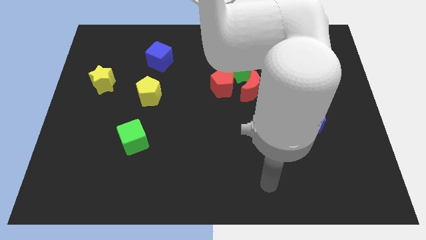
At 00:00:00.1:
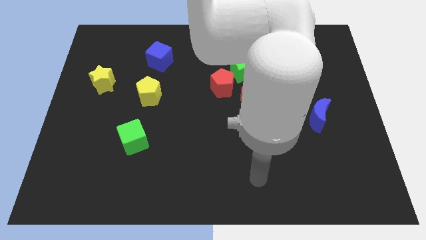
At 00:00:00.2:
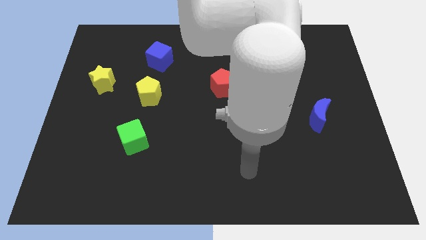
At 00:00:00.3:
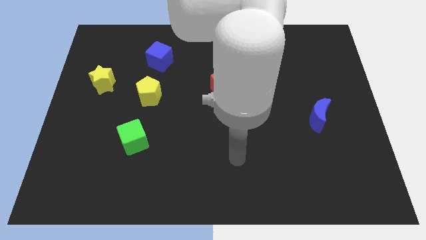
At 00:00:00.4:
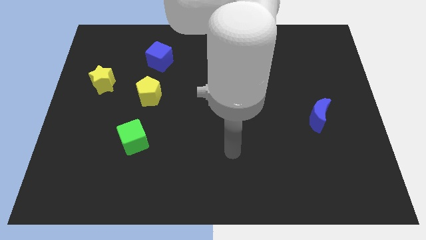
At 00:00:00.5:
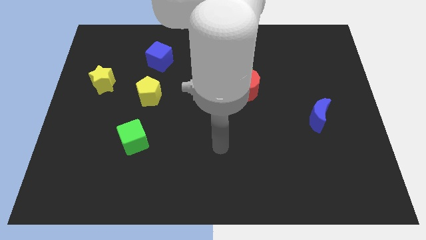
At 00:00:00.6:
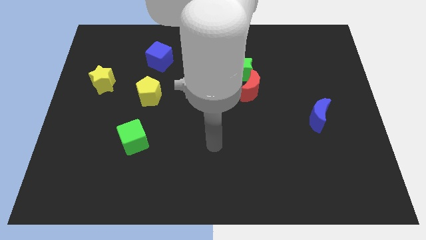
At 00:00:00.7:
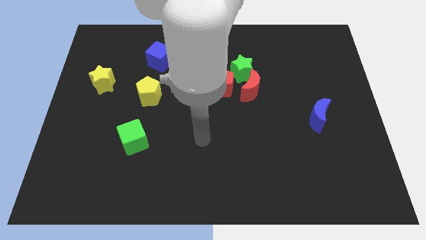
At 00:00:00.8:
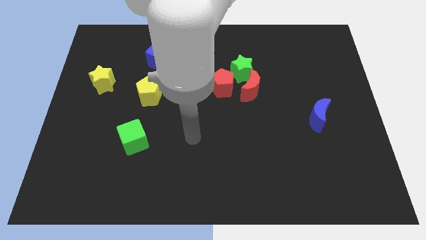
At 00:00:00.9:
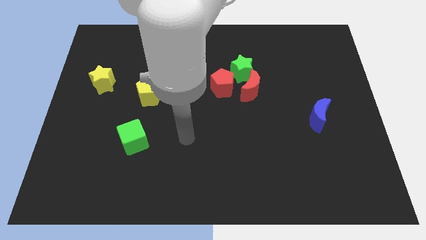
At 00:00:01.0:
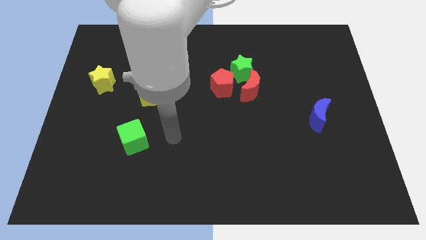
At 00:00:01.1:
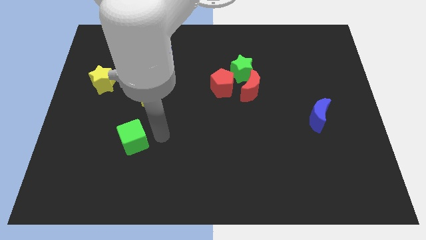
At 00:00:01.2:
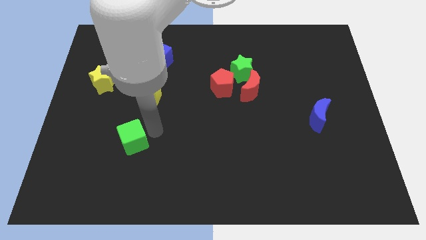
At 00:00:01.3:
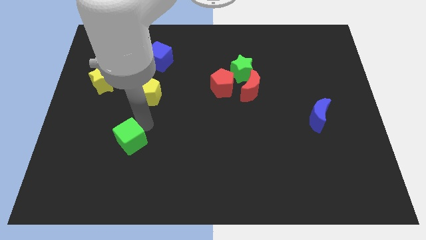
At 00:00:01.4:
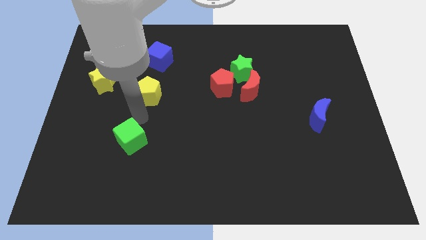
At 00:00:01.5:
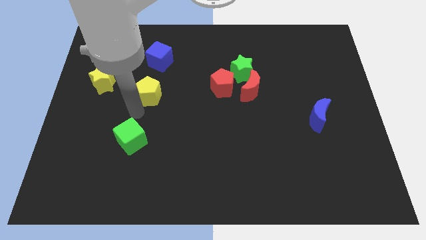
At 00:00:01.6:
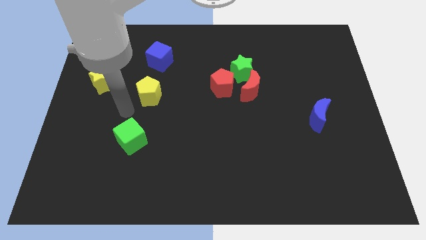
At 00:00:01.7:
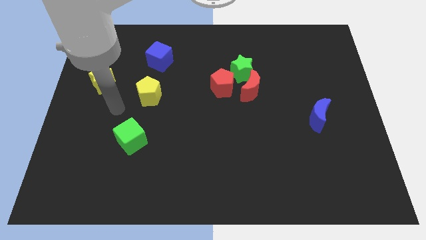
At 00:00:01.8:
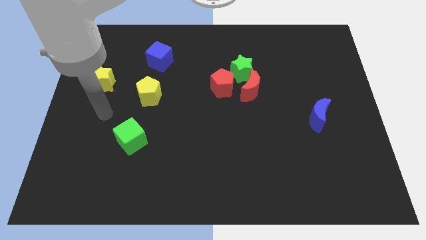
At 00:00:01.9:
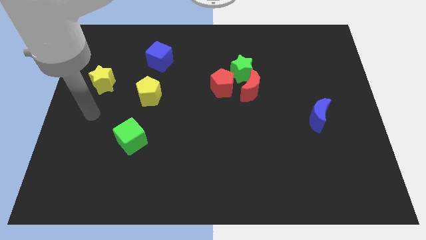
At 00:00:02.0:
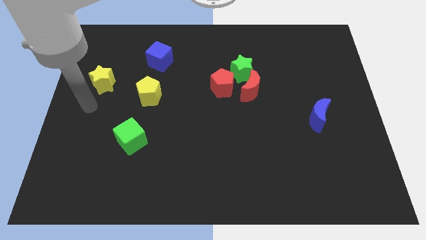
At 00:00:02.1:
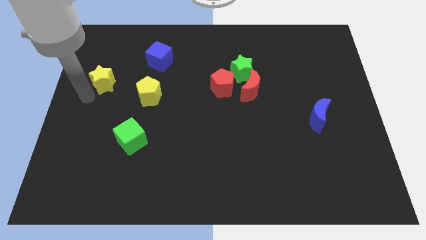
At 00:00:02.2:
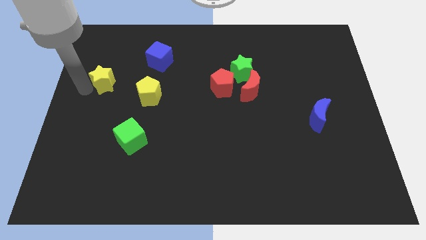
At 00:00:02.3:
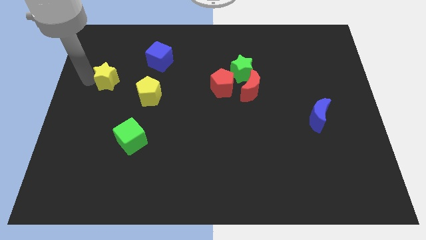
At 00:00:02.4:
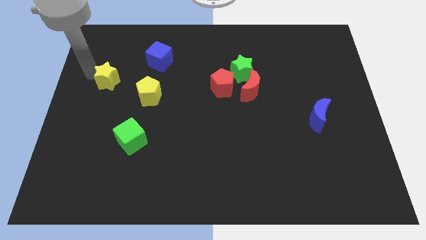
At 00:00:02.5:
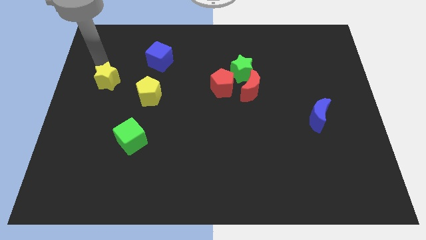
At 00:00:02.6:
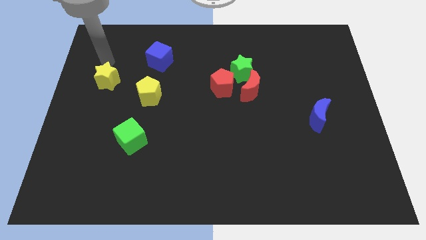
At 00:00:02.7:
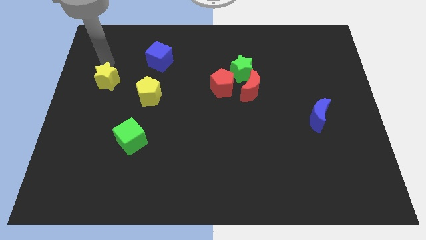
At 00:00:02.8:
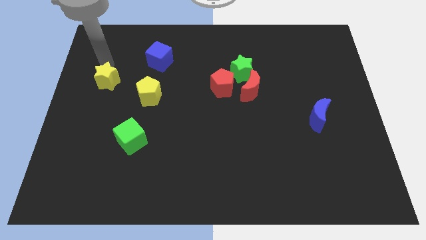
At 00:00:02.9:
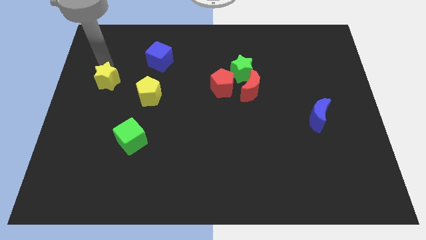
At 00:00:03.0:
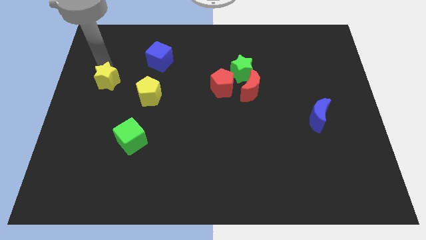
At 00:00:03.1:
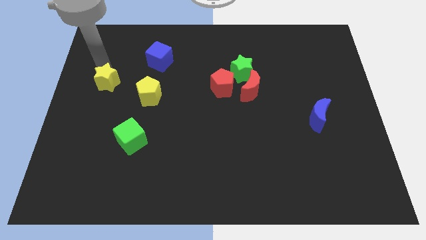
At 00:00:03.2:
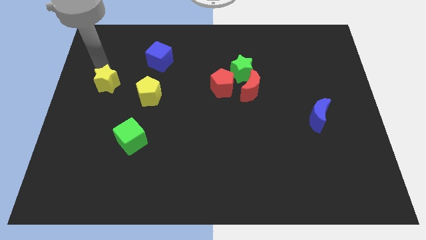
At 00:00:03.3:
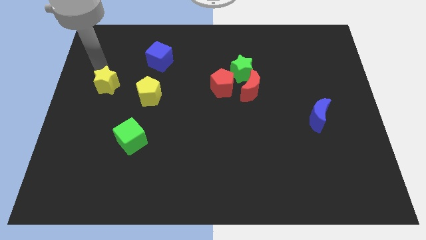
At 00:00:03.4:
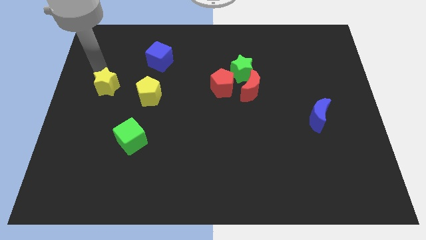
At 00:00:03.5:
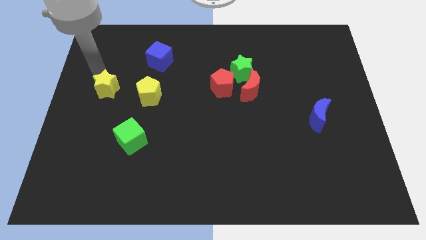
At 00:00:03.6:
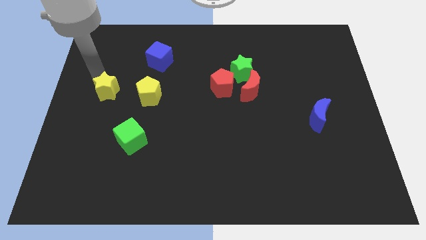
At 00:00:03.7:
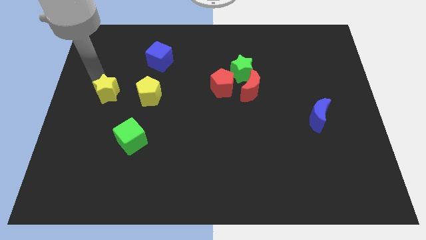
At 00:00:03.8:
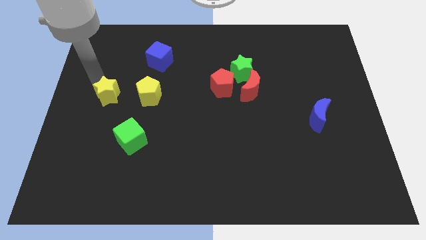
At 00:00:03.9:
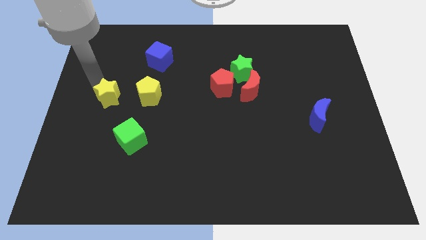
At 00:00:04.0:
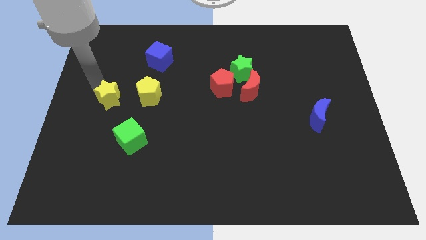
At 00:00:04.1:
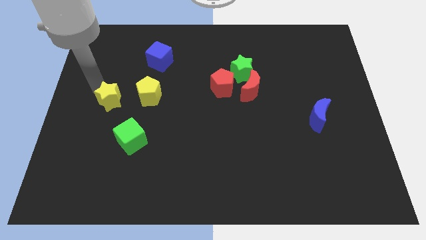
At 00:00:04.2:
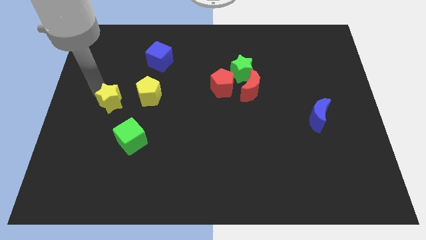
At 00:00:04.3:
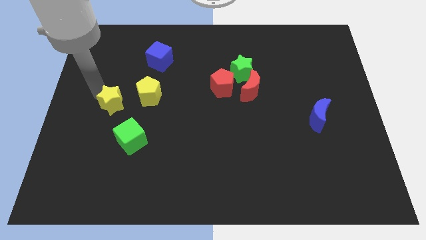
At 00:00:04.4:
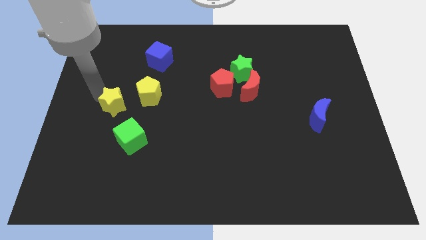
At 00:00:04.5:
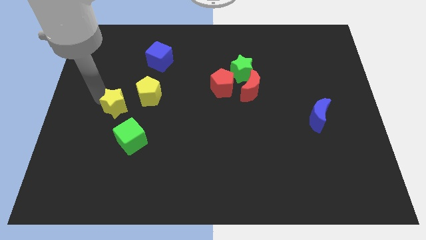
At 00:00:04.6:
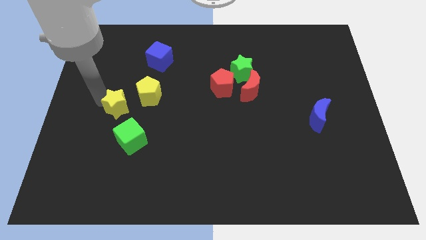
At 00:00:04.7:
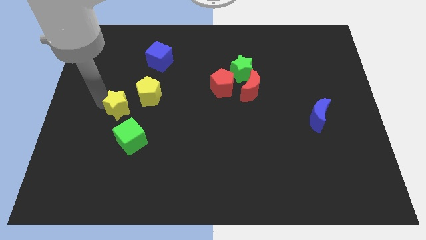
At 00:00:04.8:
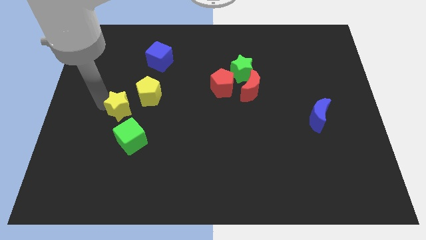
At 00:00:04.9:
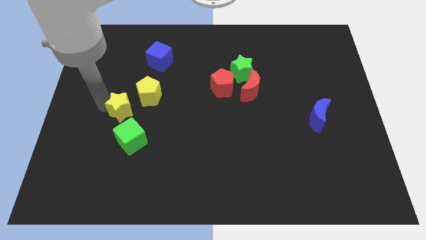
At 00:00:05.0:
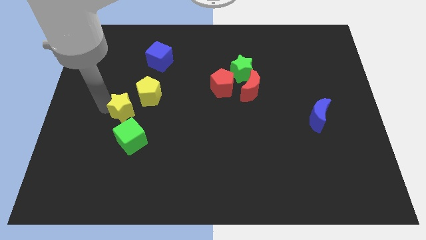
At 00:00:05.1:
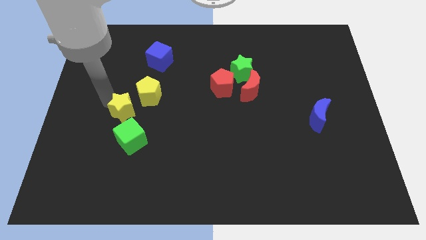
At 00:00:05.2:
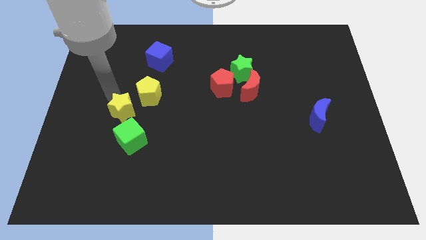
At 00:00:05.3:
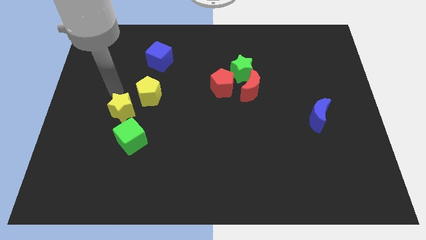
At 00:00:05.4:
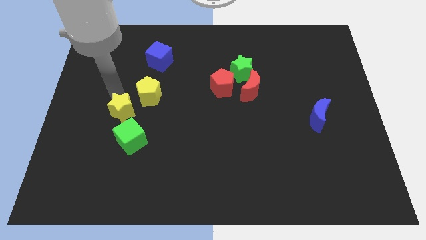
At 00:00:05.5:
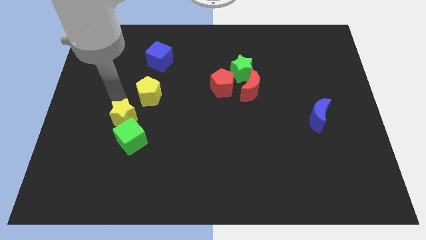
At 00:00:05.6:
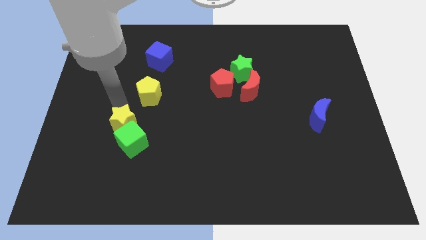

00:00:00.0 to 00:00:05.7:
push the yellow star towards the green cube
